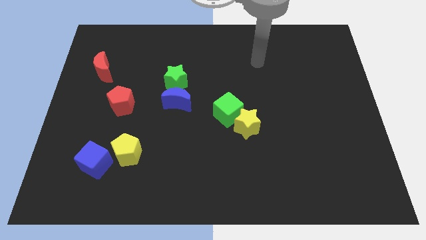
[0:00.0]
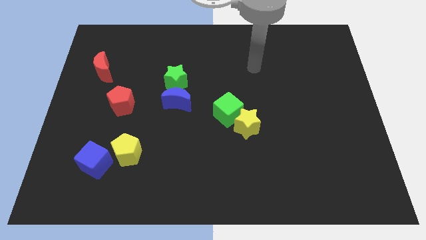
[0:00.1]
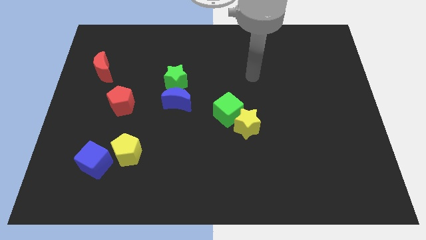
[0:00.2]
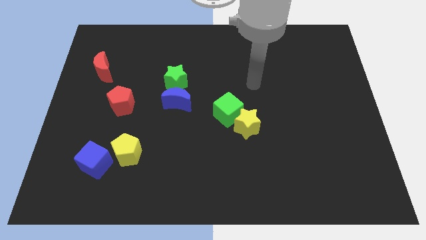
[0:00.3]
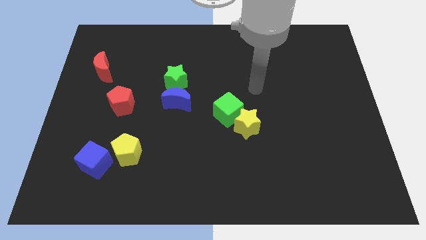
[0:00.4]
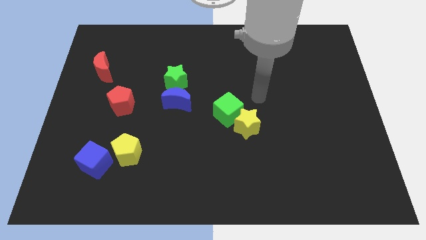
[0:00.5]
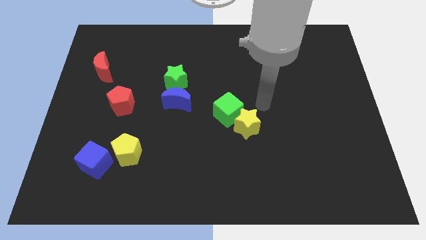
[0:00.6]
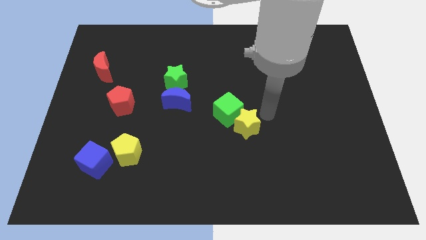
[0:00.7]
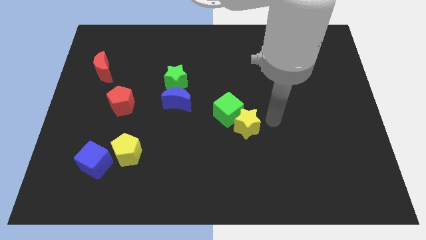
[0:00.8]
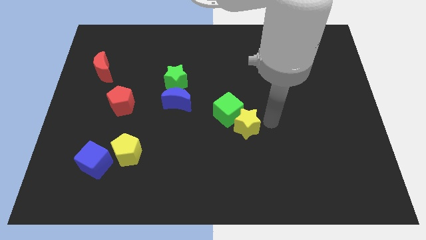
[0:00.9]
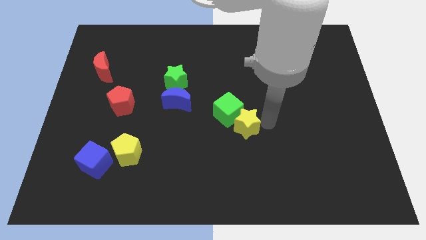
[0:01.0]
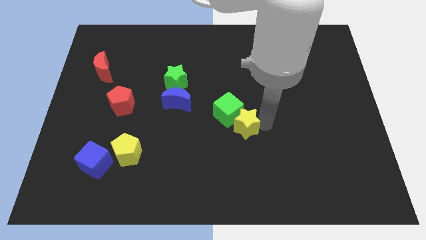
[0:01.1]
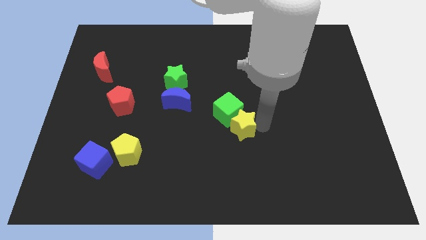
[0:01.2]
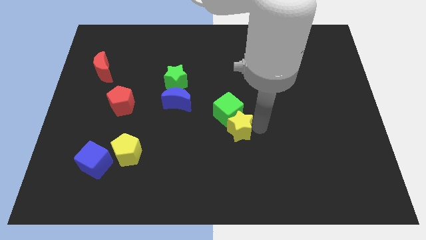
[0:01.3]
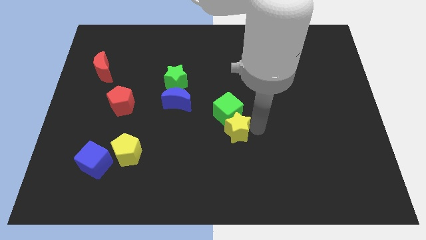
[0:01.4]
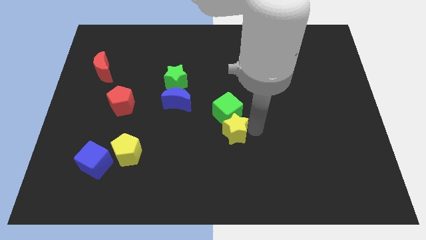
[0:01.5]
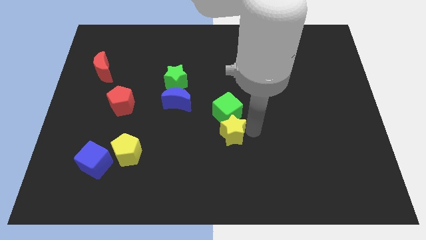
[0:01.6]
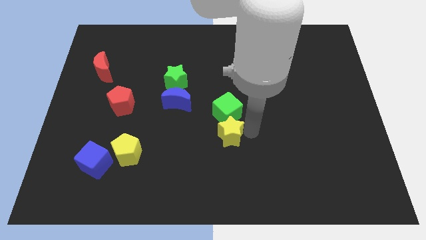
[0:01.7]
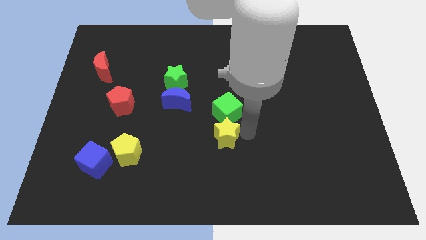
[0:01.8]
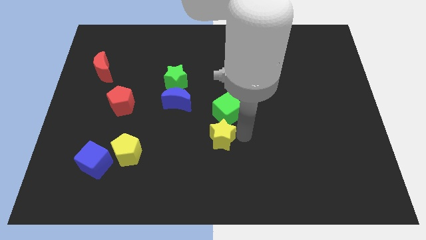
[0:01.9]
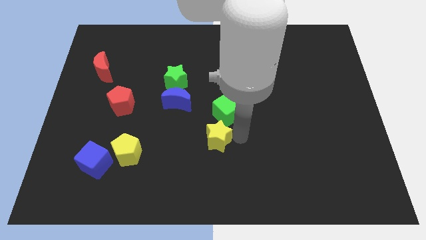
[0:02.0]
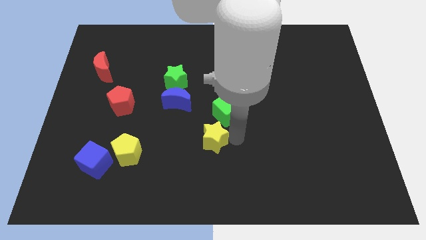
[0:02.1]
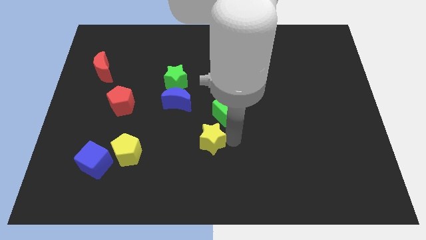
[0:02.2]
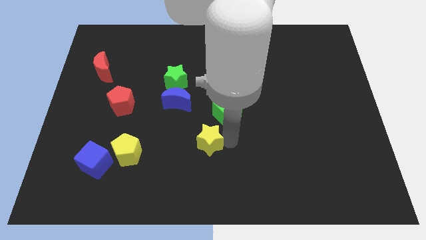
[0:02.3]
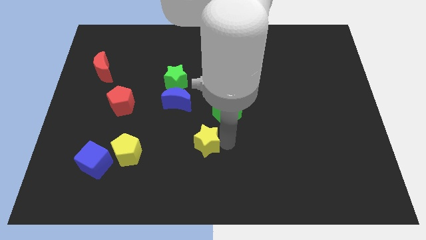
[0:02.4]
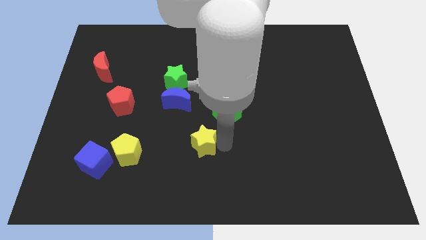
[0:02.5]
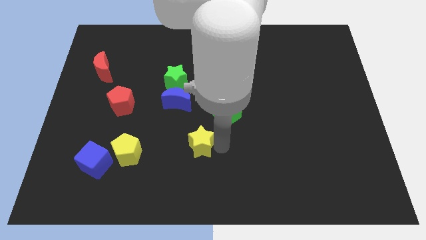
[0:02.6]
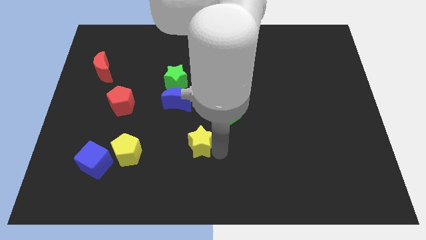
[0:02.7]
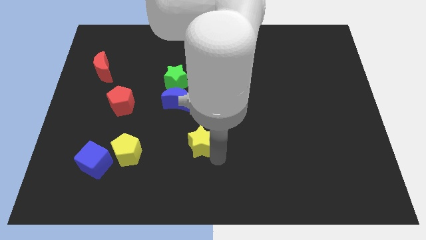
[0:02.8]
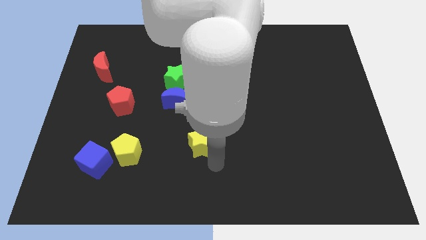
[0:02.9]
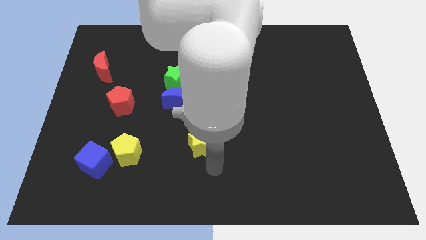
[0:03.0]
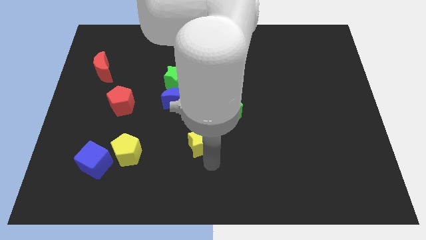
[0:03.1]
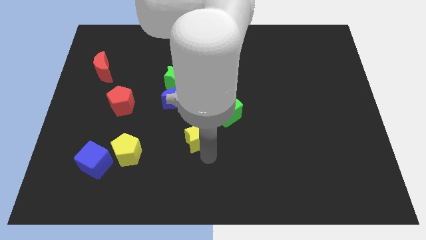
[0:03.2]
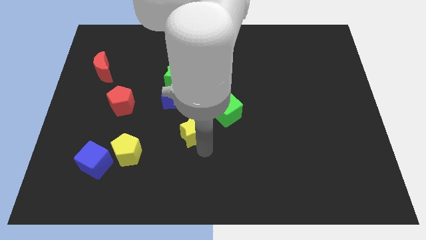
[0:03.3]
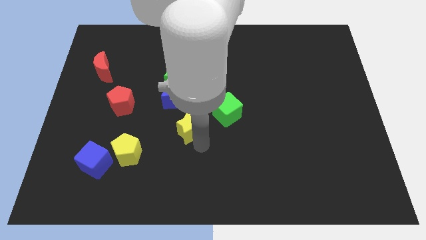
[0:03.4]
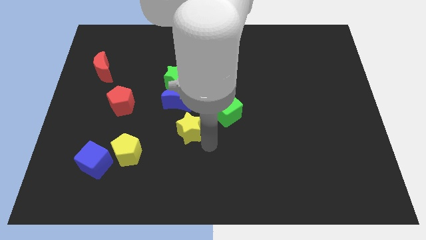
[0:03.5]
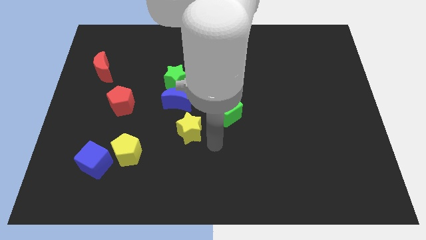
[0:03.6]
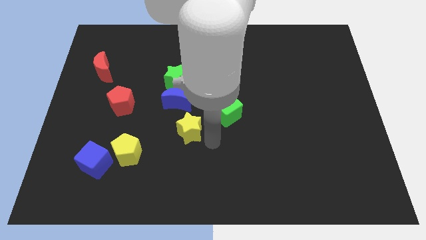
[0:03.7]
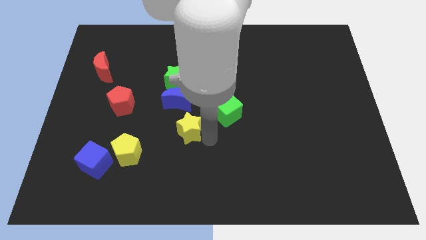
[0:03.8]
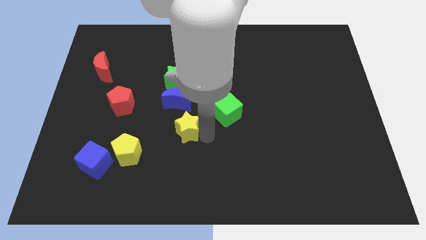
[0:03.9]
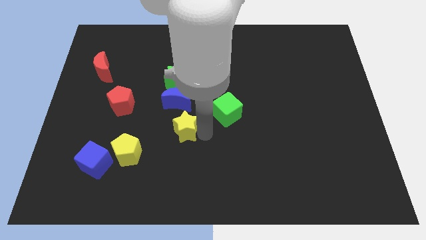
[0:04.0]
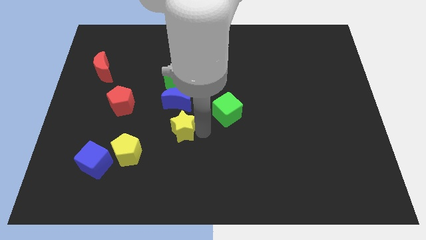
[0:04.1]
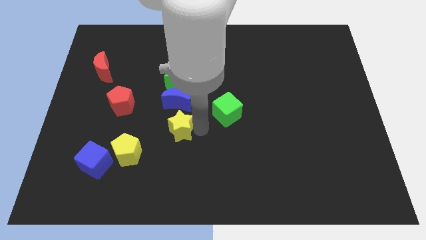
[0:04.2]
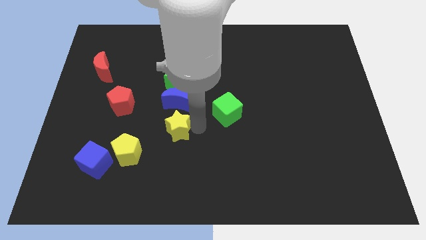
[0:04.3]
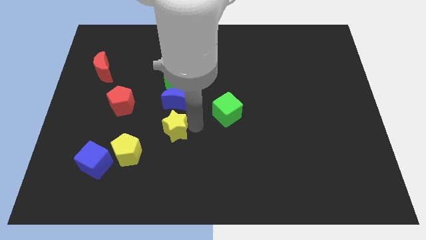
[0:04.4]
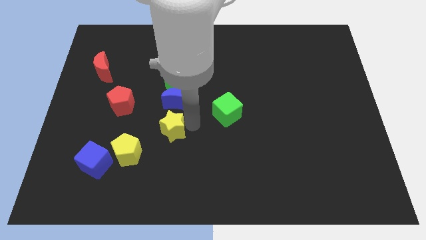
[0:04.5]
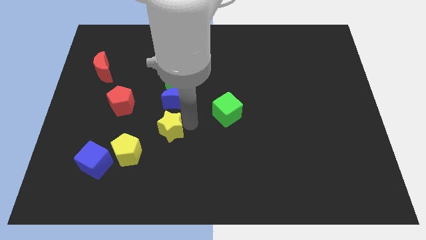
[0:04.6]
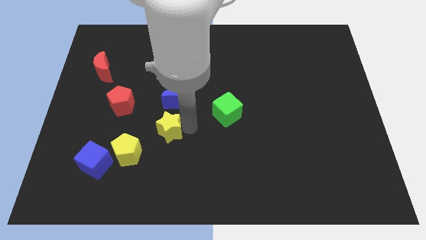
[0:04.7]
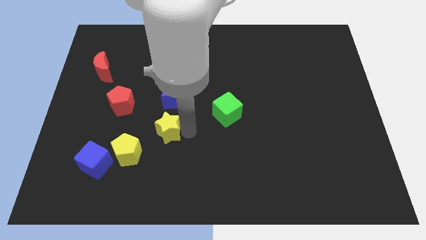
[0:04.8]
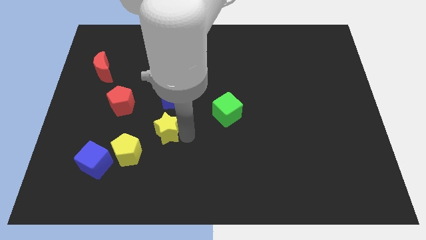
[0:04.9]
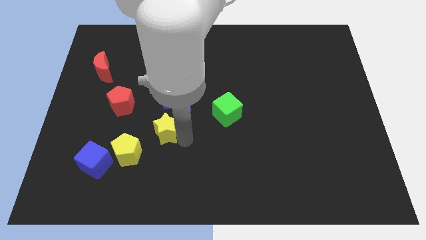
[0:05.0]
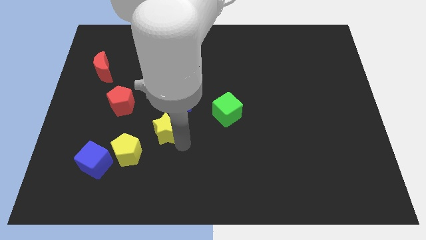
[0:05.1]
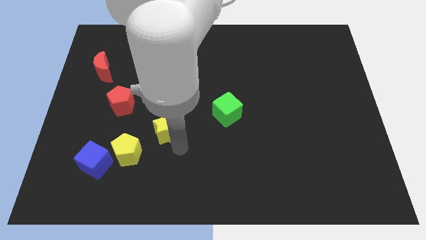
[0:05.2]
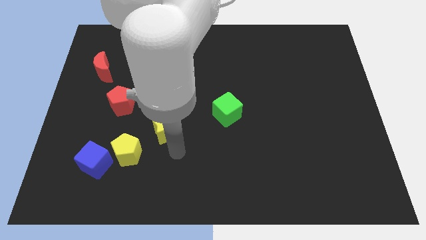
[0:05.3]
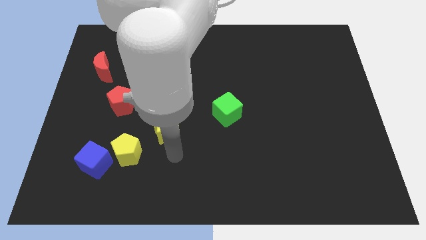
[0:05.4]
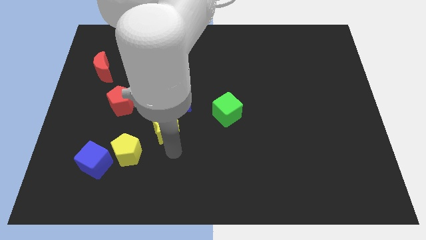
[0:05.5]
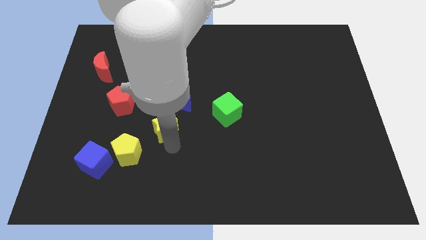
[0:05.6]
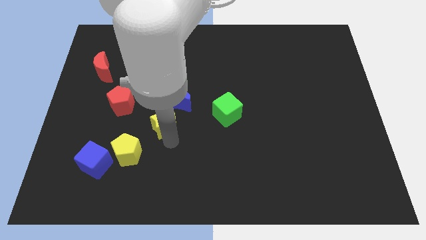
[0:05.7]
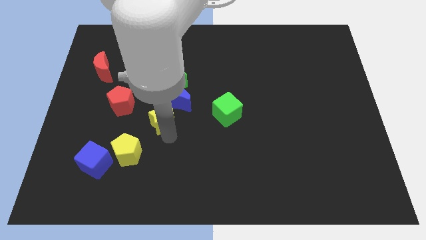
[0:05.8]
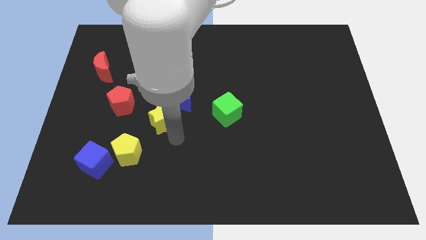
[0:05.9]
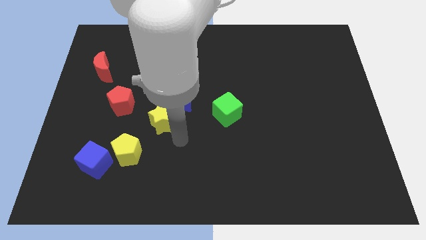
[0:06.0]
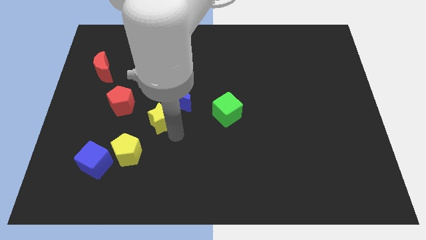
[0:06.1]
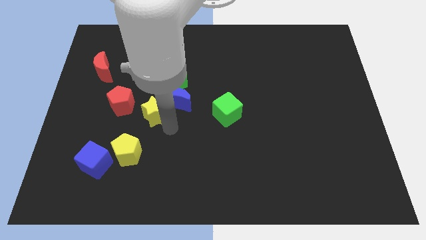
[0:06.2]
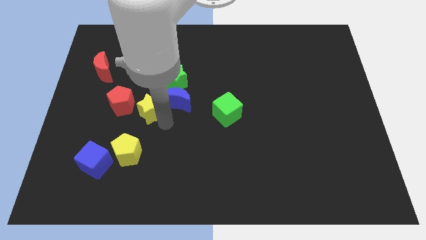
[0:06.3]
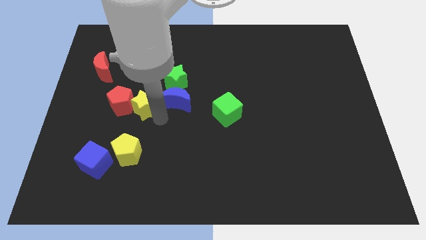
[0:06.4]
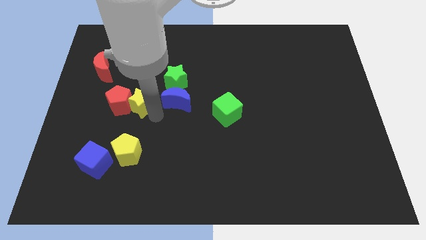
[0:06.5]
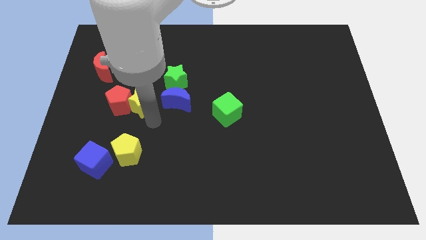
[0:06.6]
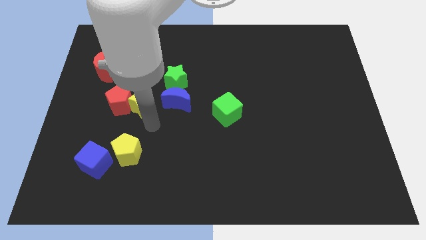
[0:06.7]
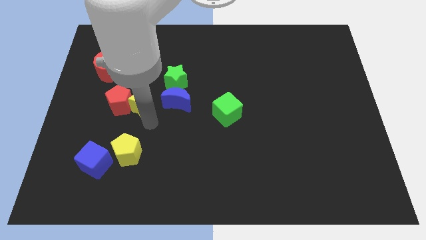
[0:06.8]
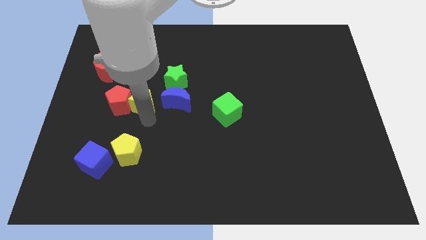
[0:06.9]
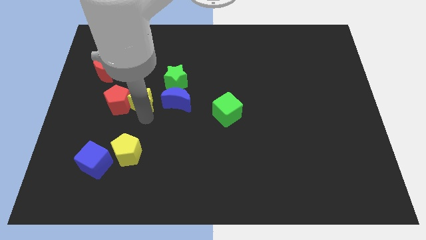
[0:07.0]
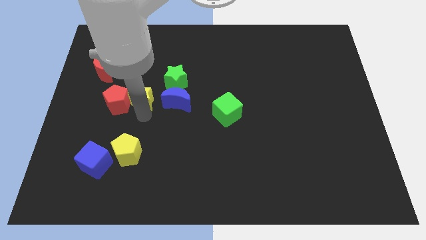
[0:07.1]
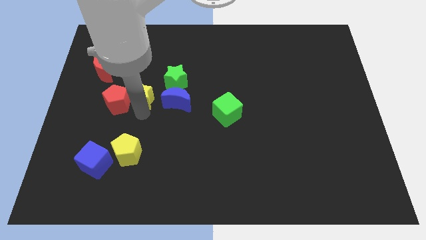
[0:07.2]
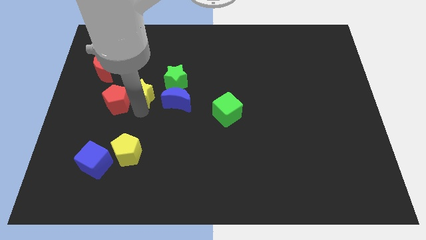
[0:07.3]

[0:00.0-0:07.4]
slide the yellow star just left of the green star
